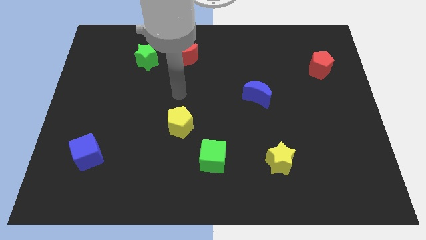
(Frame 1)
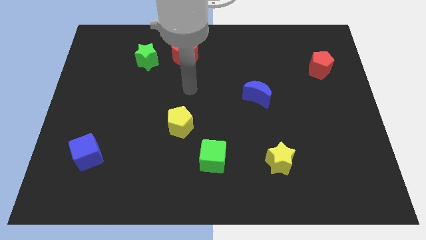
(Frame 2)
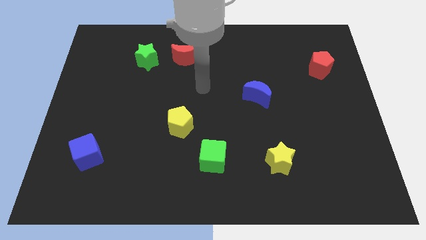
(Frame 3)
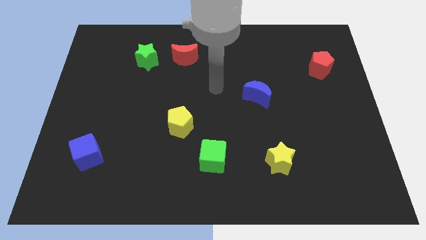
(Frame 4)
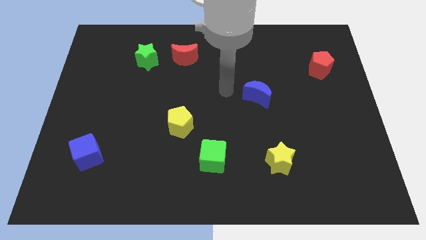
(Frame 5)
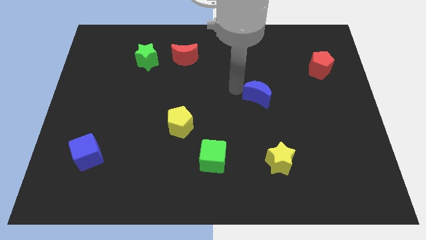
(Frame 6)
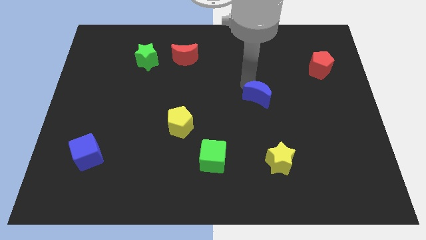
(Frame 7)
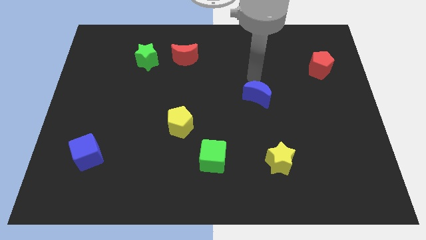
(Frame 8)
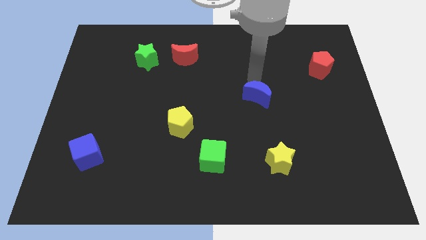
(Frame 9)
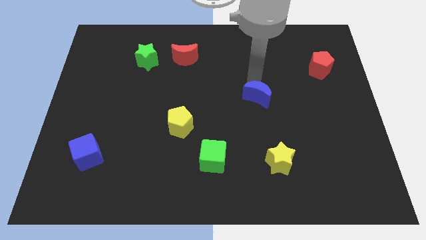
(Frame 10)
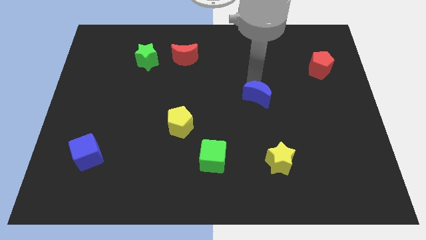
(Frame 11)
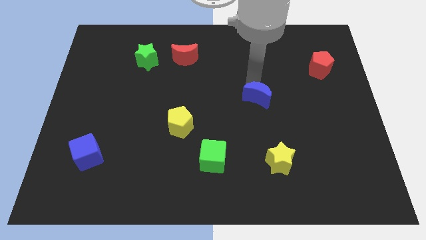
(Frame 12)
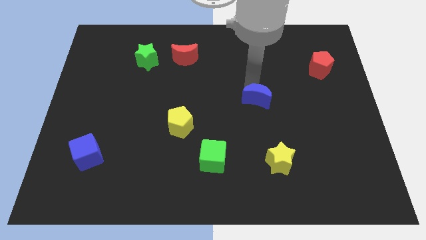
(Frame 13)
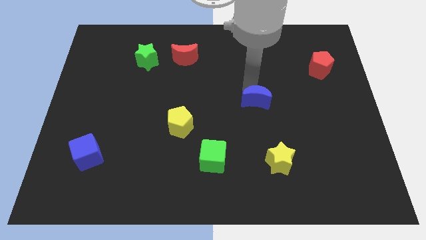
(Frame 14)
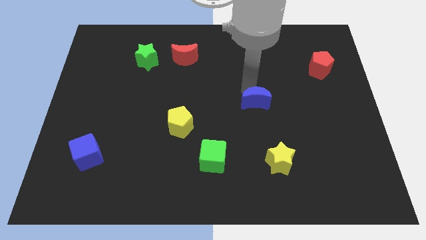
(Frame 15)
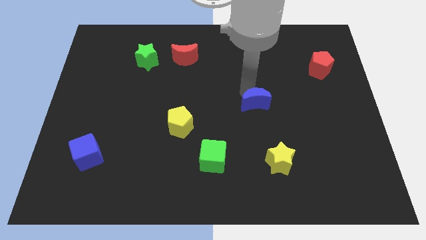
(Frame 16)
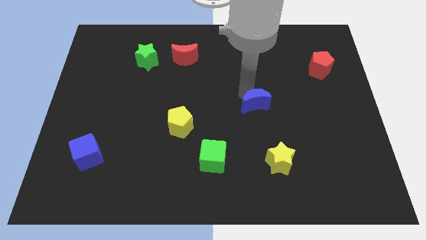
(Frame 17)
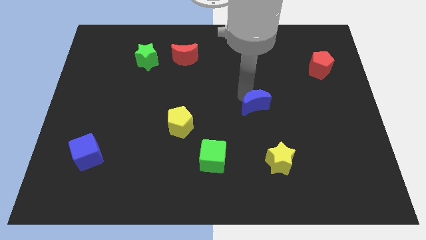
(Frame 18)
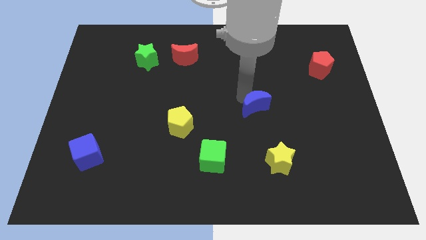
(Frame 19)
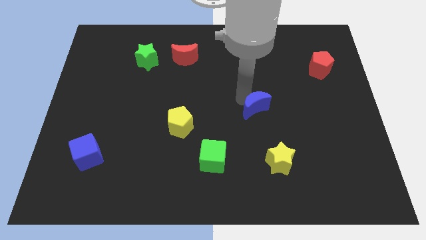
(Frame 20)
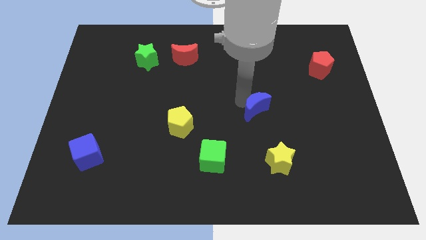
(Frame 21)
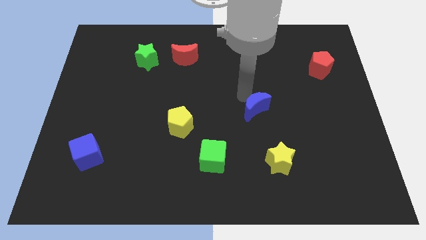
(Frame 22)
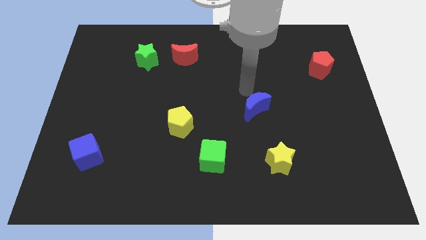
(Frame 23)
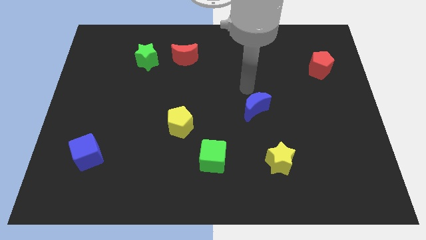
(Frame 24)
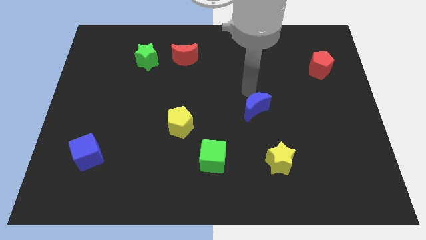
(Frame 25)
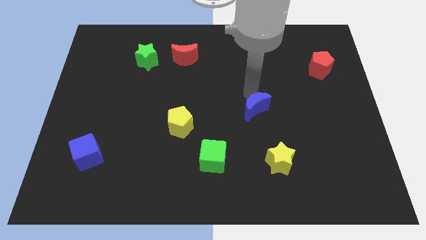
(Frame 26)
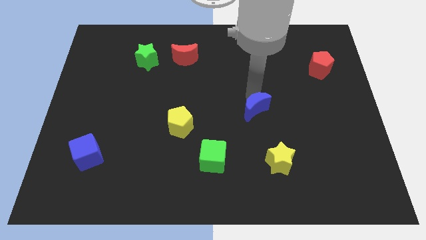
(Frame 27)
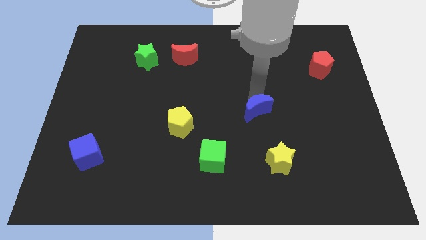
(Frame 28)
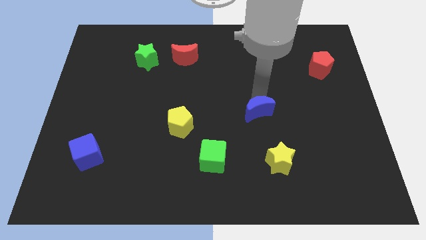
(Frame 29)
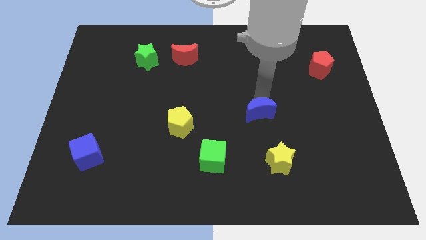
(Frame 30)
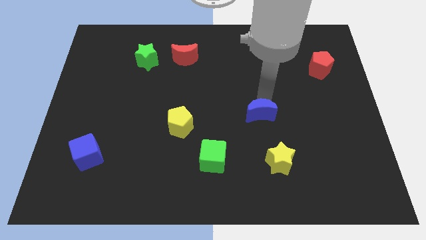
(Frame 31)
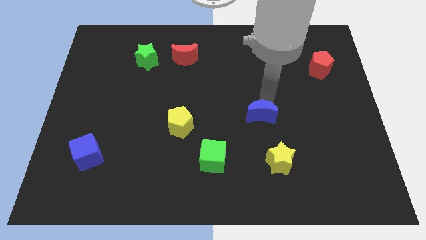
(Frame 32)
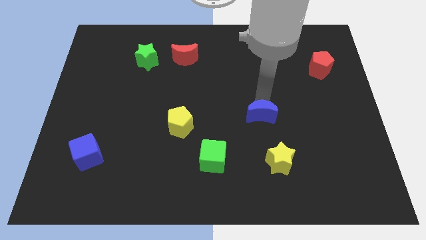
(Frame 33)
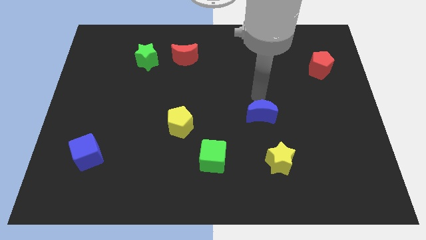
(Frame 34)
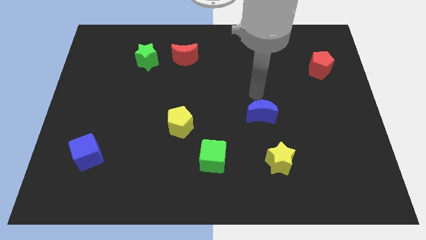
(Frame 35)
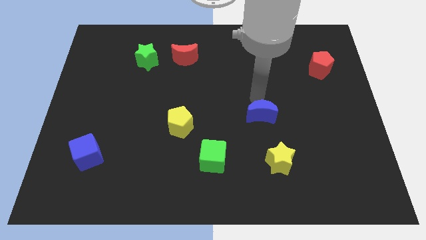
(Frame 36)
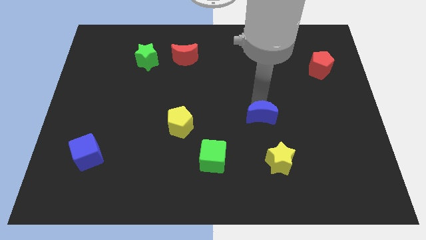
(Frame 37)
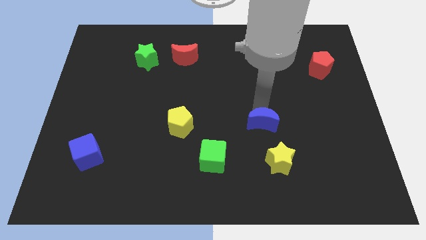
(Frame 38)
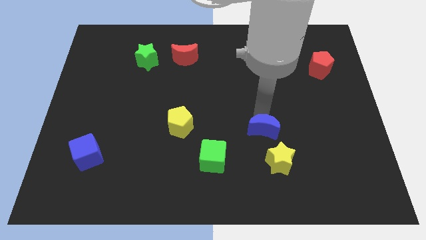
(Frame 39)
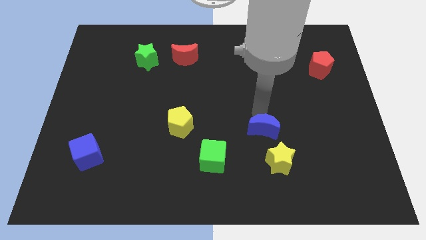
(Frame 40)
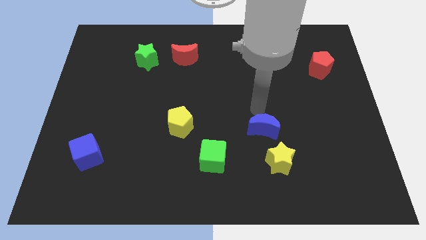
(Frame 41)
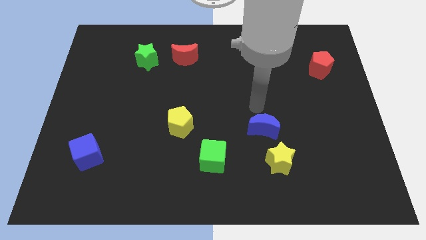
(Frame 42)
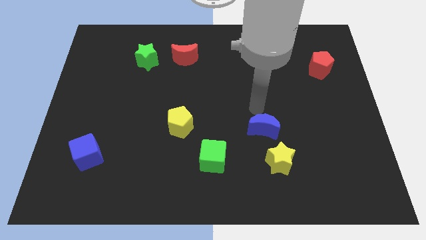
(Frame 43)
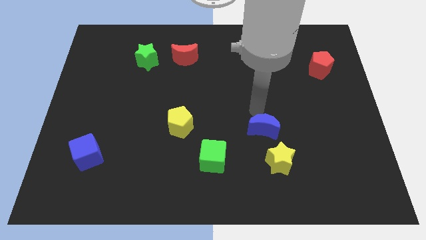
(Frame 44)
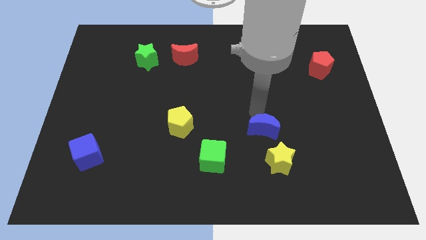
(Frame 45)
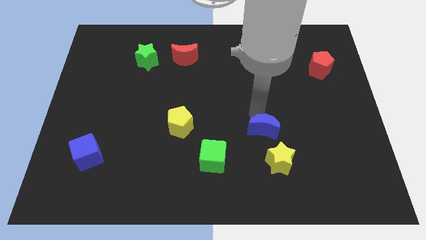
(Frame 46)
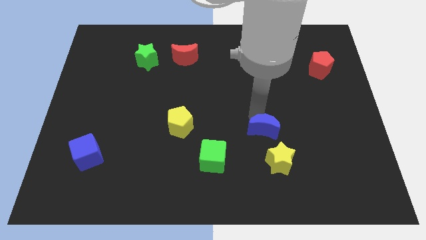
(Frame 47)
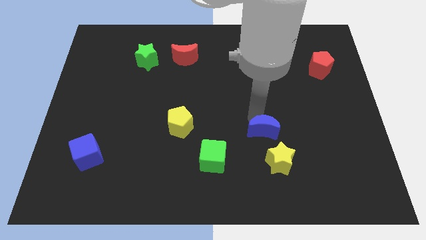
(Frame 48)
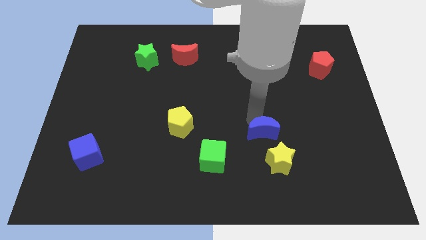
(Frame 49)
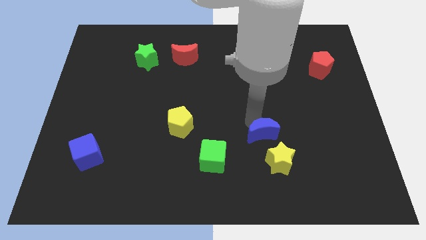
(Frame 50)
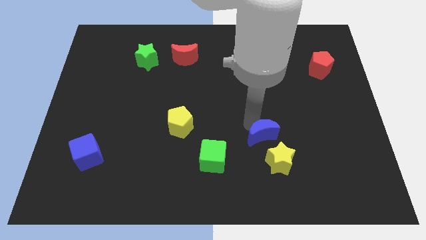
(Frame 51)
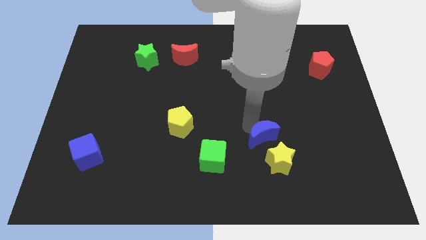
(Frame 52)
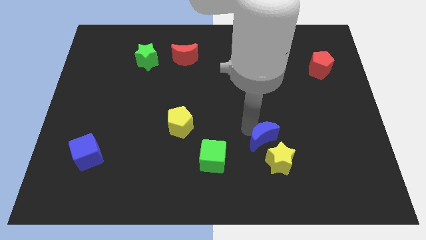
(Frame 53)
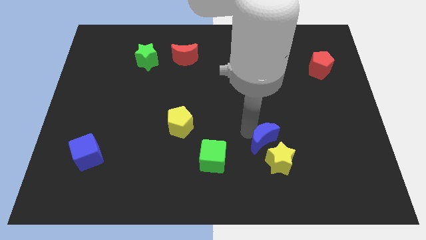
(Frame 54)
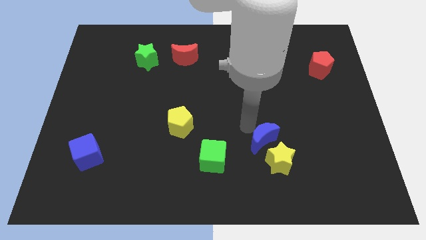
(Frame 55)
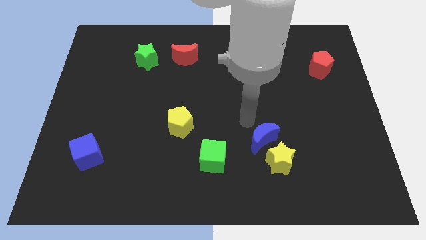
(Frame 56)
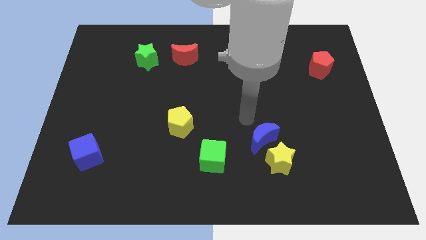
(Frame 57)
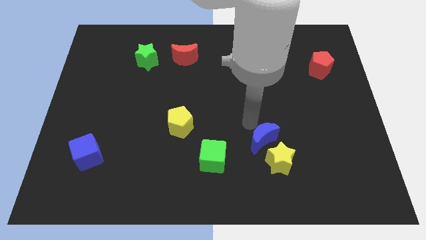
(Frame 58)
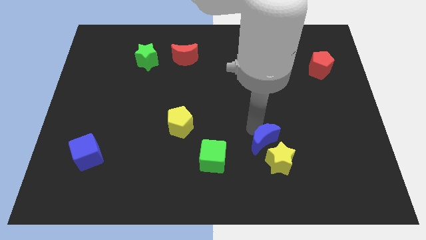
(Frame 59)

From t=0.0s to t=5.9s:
put the blue moon close to the yellow star

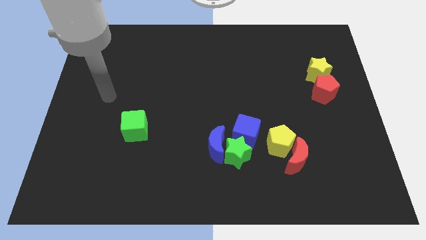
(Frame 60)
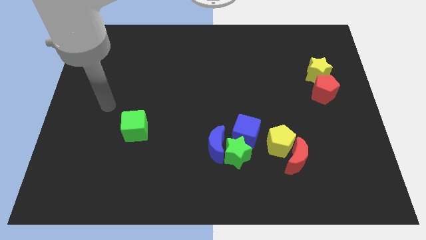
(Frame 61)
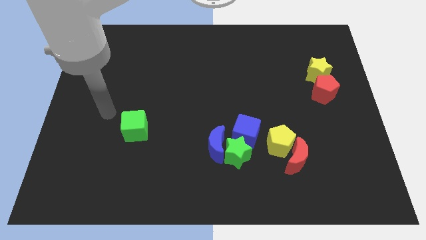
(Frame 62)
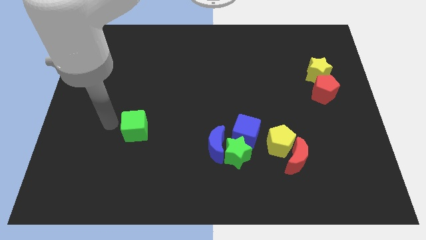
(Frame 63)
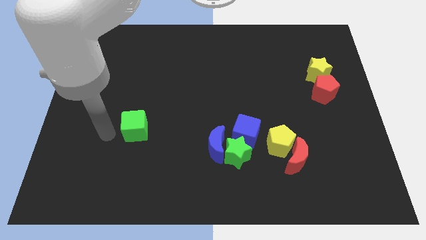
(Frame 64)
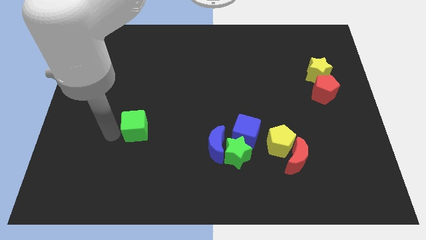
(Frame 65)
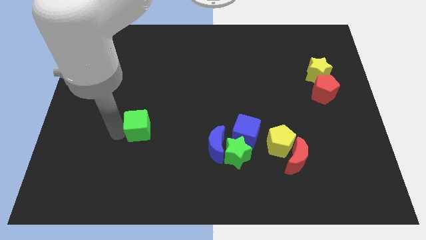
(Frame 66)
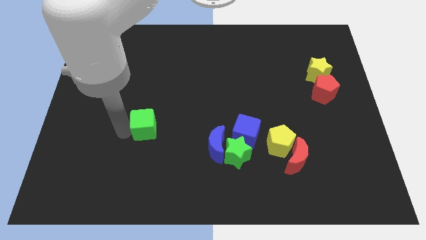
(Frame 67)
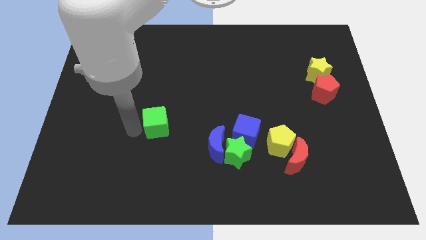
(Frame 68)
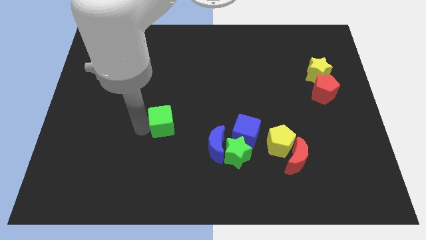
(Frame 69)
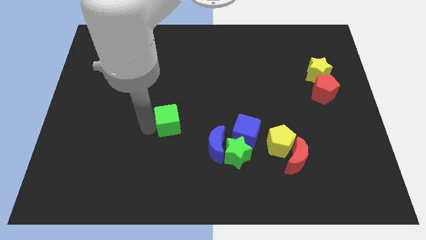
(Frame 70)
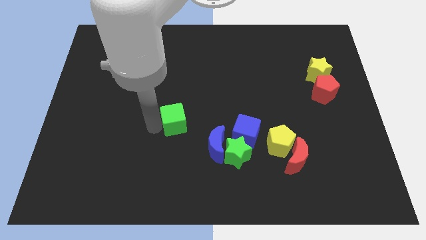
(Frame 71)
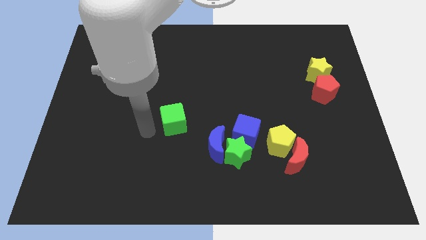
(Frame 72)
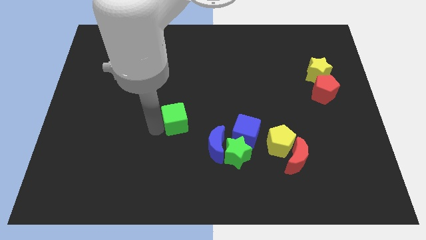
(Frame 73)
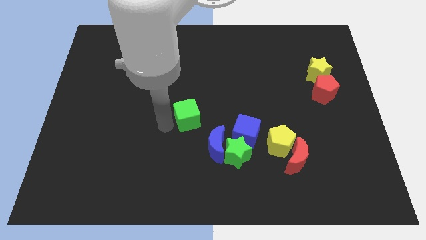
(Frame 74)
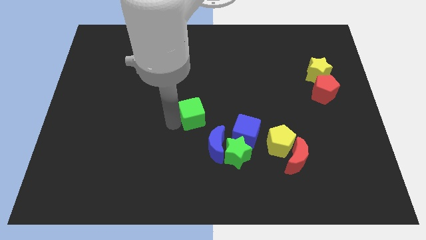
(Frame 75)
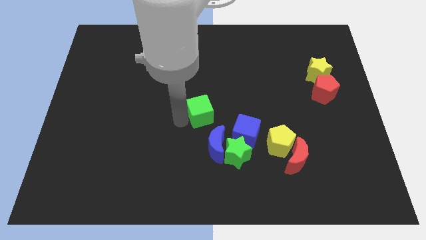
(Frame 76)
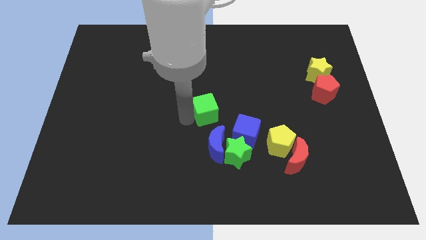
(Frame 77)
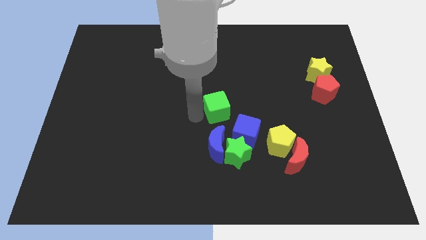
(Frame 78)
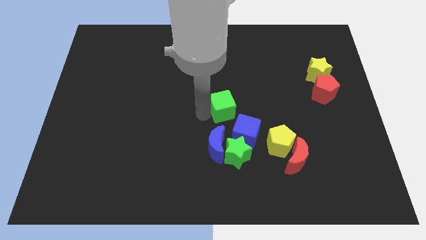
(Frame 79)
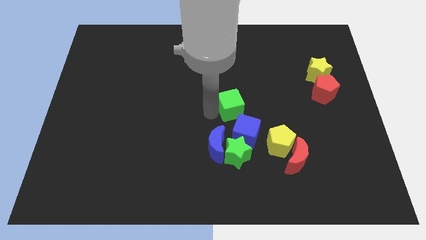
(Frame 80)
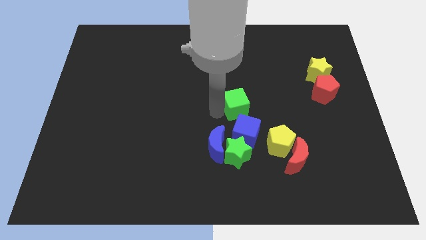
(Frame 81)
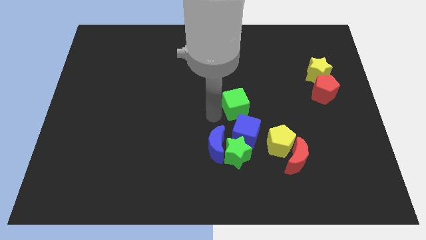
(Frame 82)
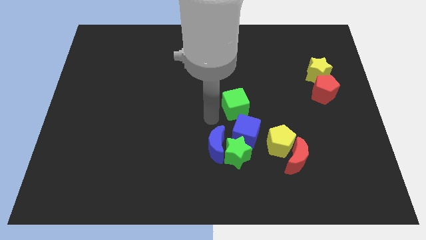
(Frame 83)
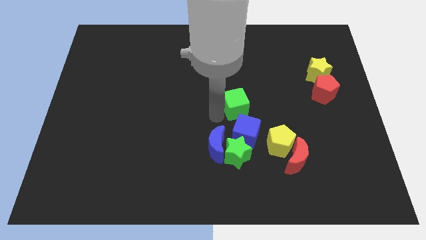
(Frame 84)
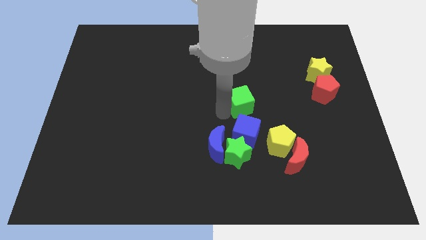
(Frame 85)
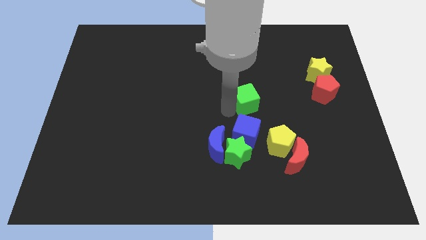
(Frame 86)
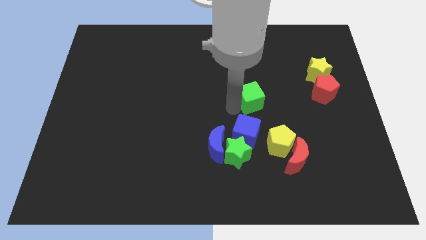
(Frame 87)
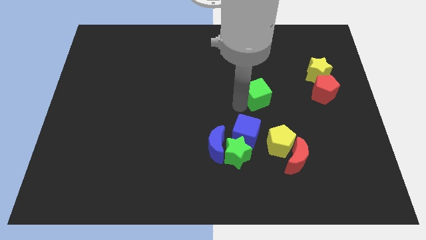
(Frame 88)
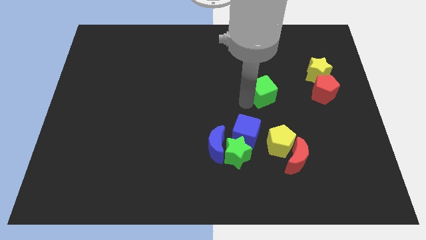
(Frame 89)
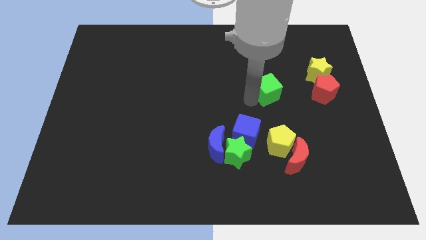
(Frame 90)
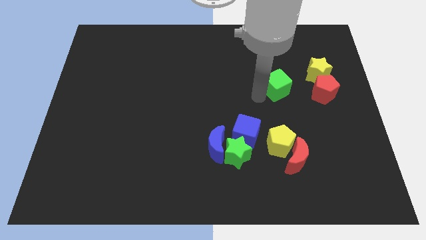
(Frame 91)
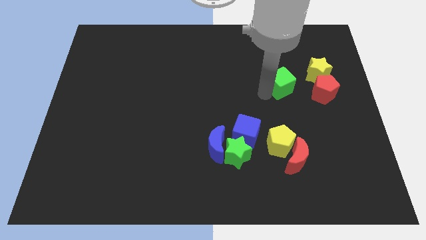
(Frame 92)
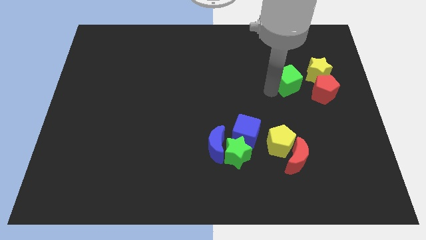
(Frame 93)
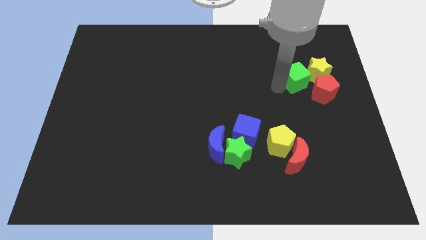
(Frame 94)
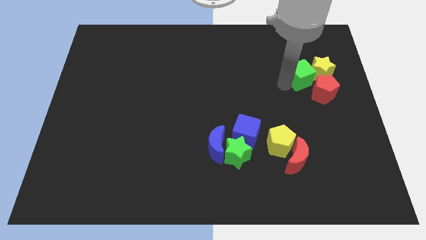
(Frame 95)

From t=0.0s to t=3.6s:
push the green cube towards the yellow star
